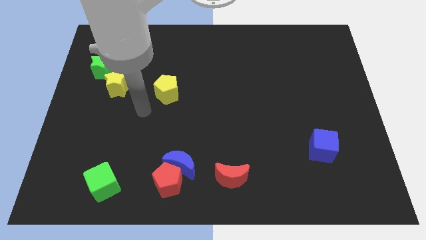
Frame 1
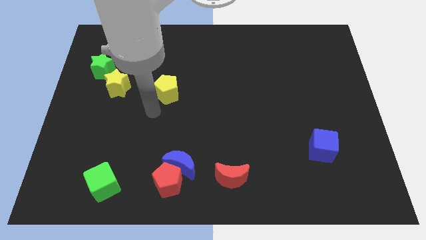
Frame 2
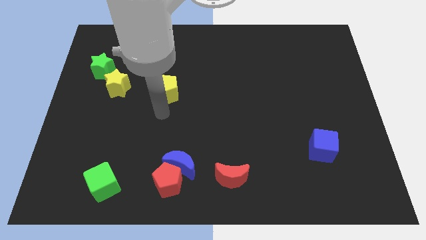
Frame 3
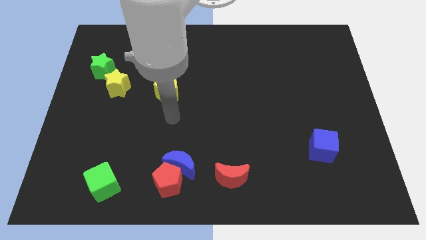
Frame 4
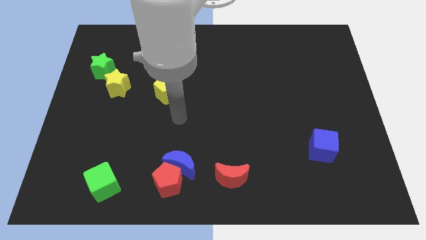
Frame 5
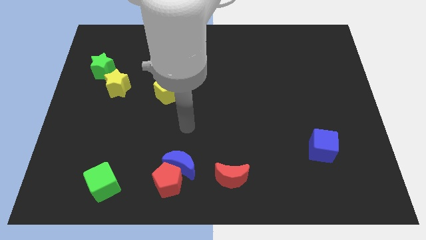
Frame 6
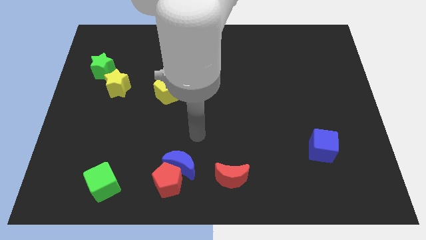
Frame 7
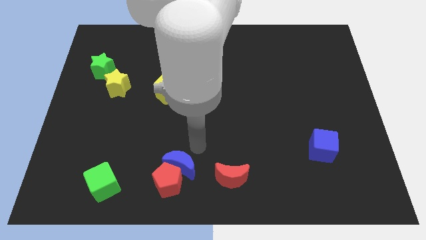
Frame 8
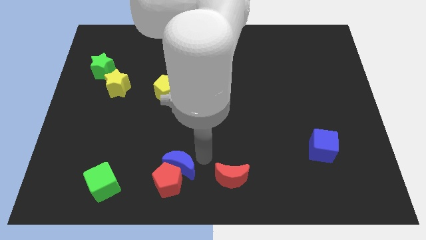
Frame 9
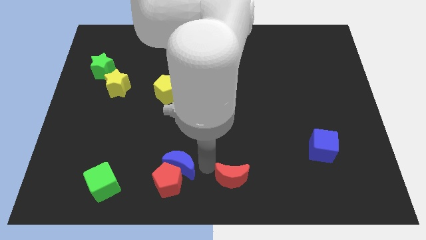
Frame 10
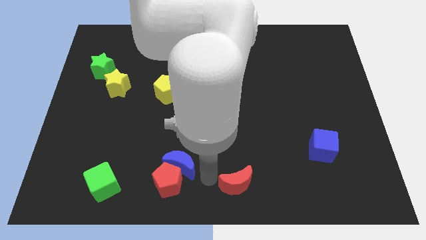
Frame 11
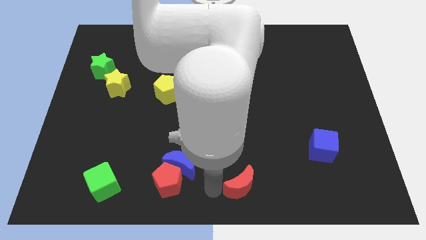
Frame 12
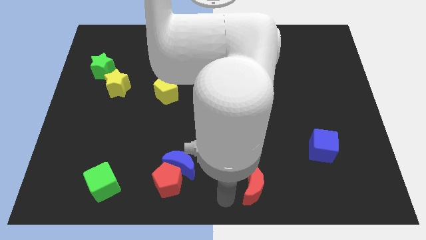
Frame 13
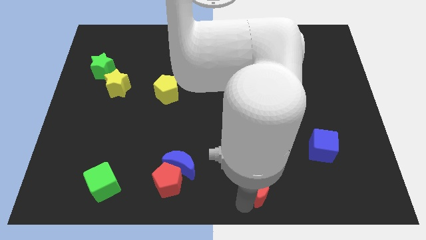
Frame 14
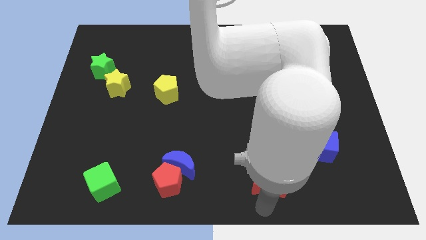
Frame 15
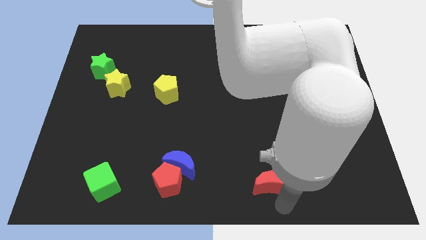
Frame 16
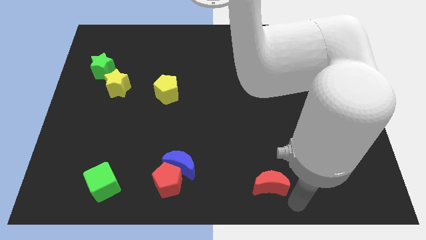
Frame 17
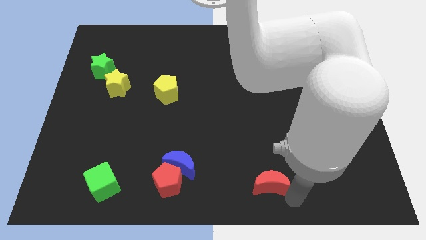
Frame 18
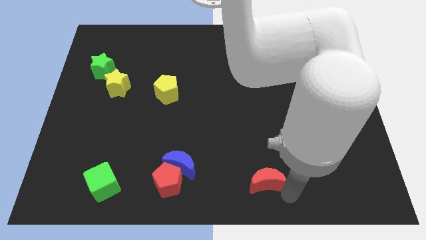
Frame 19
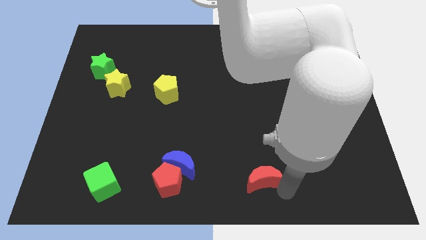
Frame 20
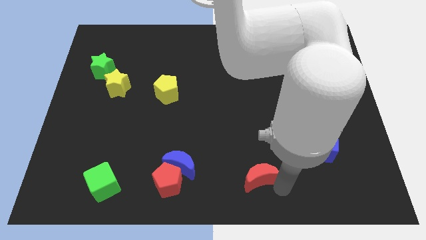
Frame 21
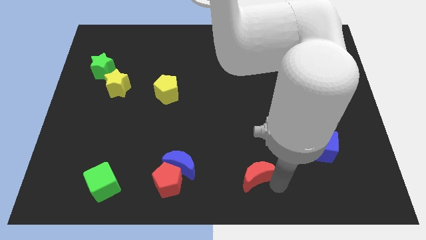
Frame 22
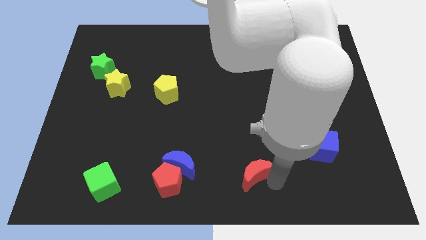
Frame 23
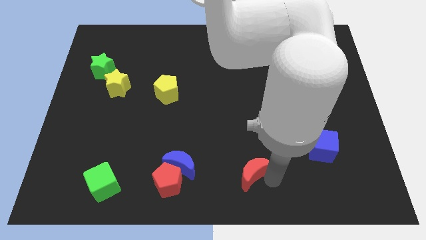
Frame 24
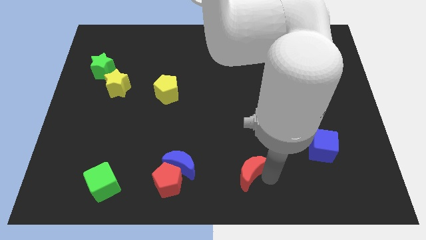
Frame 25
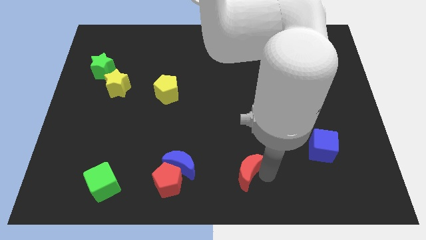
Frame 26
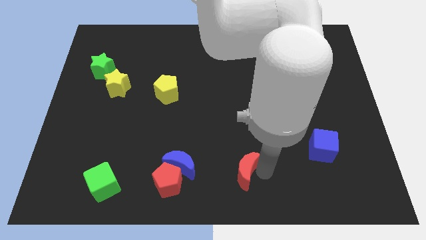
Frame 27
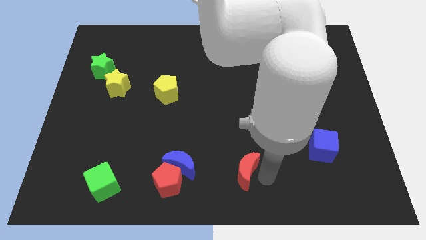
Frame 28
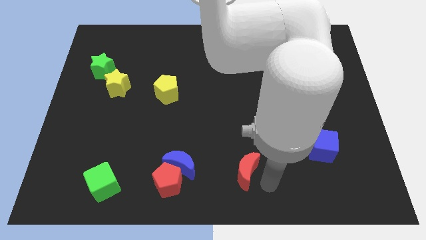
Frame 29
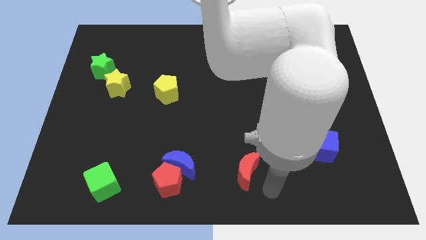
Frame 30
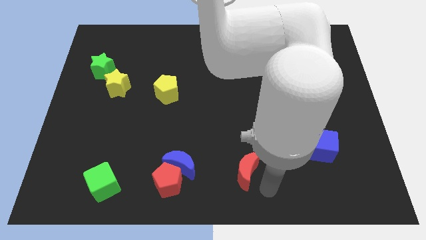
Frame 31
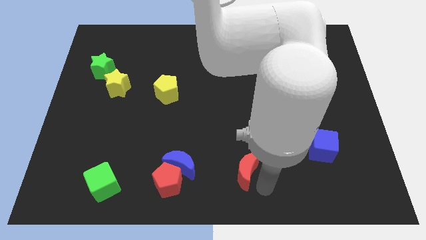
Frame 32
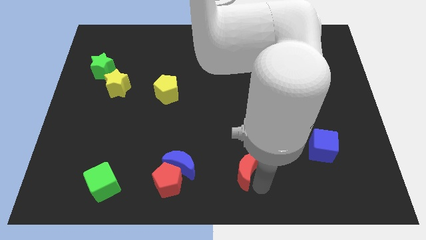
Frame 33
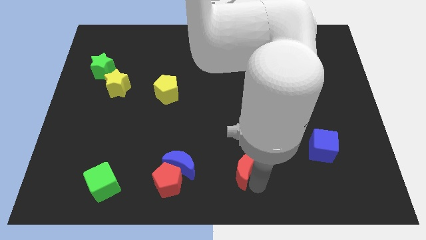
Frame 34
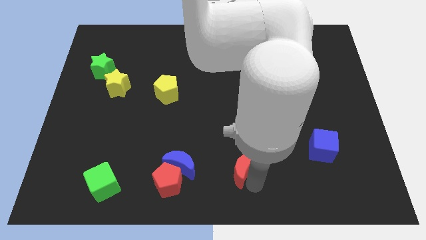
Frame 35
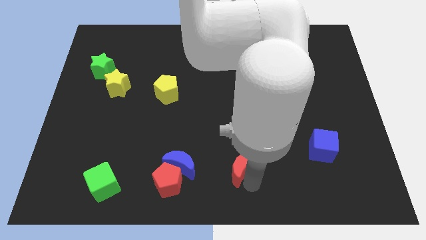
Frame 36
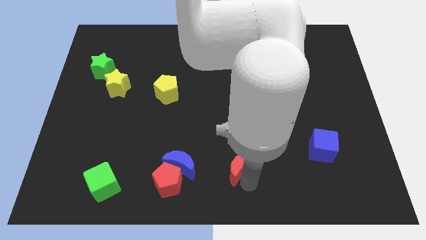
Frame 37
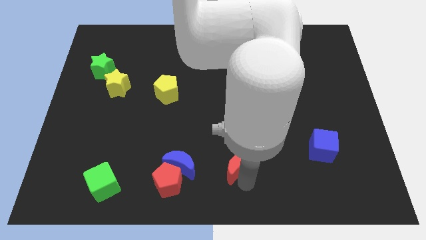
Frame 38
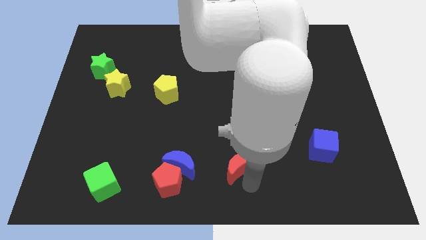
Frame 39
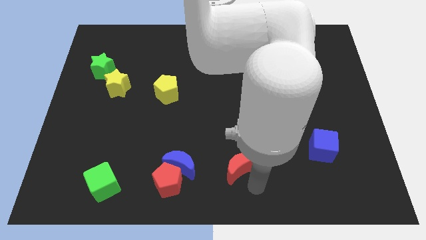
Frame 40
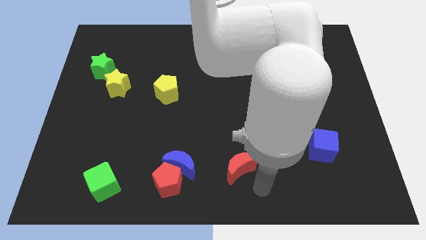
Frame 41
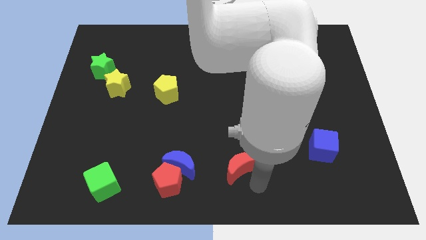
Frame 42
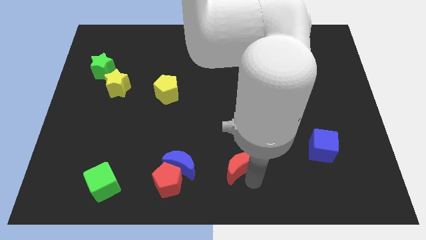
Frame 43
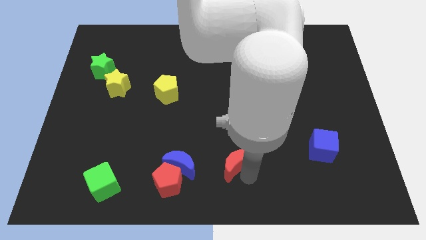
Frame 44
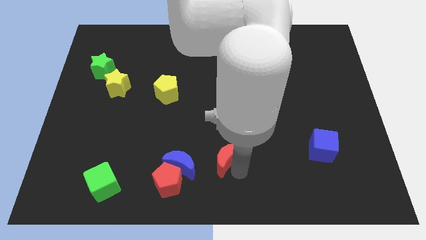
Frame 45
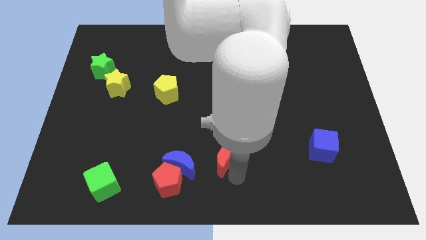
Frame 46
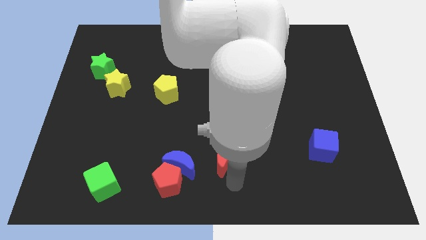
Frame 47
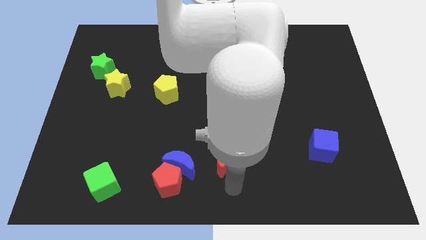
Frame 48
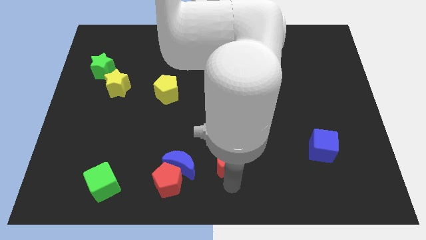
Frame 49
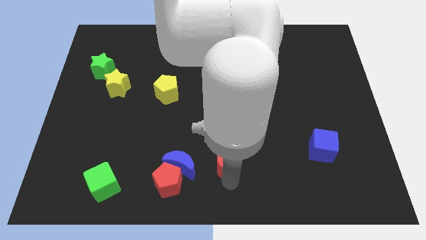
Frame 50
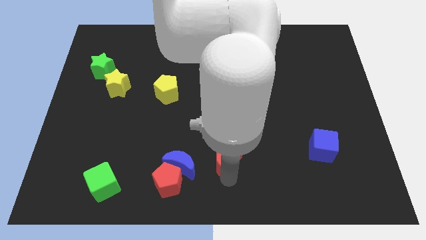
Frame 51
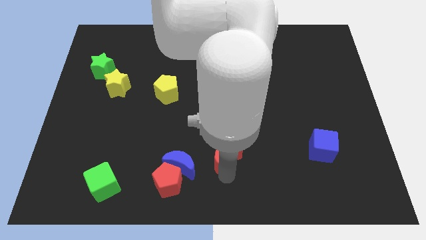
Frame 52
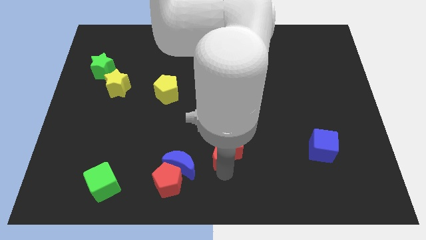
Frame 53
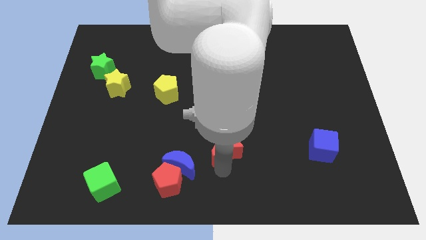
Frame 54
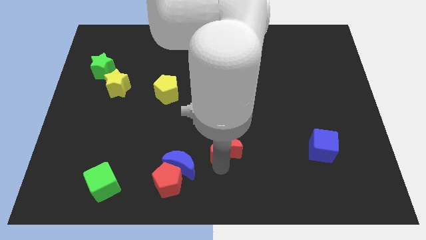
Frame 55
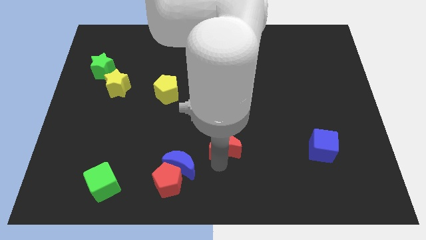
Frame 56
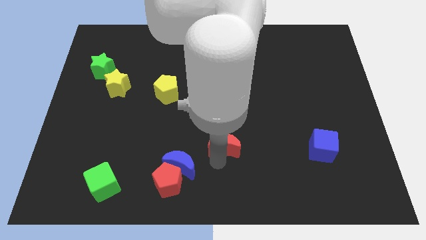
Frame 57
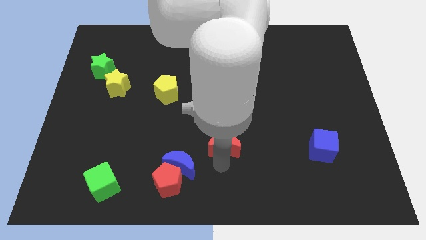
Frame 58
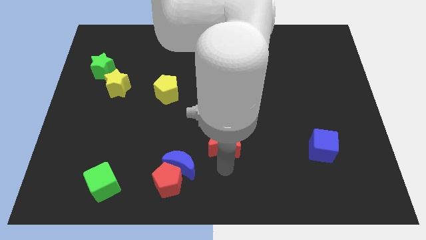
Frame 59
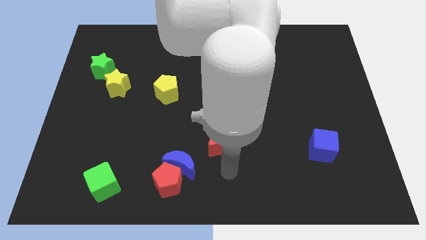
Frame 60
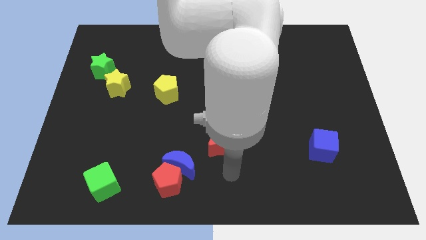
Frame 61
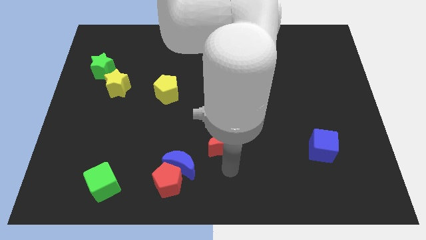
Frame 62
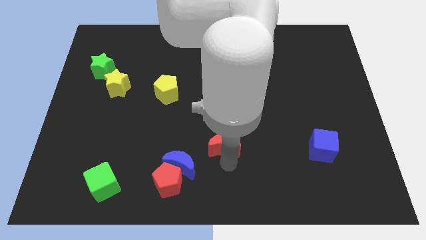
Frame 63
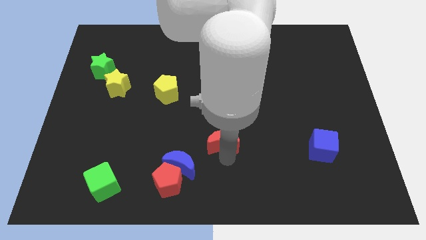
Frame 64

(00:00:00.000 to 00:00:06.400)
move the red moon to the center of the board
